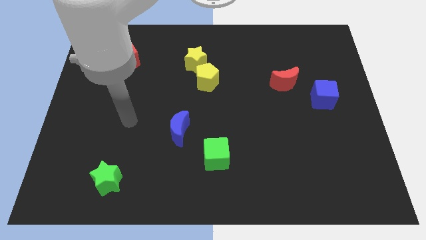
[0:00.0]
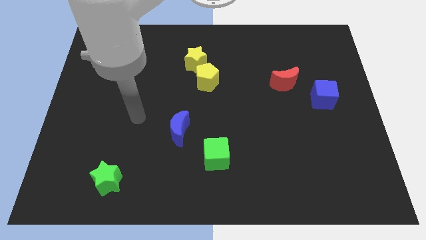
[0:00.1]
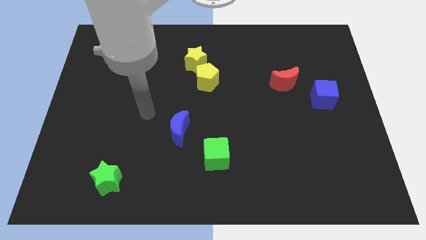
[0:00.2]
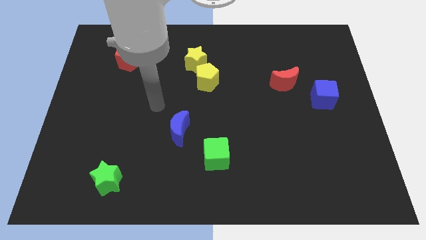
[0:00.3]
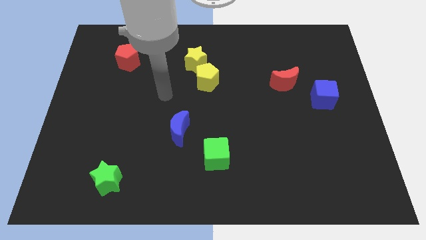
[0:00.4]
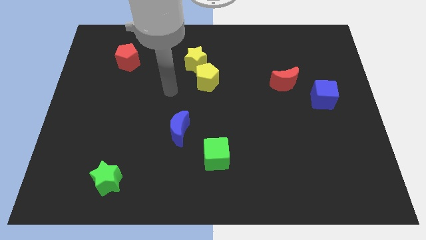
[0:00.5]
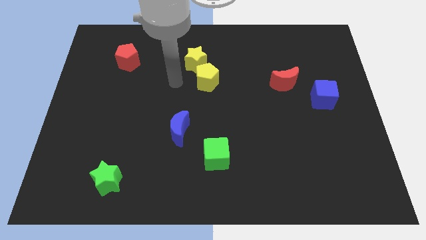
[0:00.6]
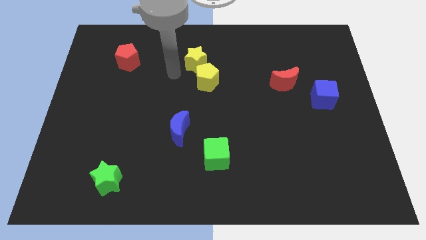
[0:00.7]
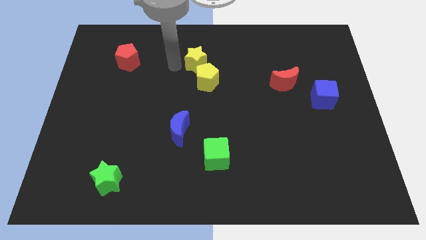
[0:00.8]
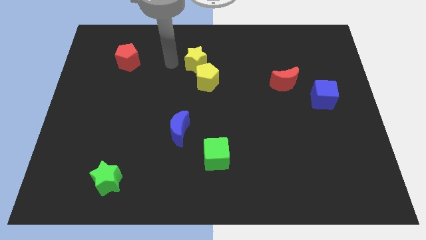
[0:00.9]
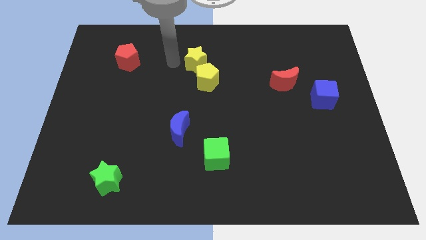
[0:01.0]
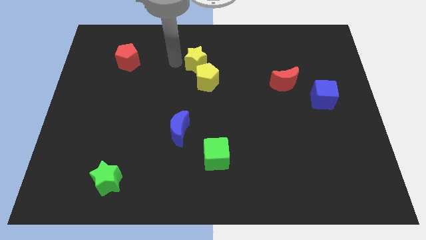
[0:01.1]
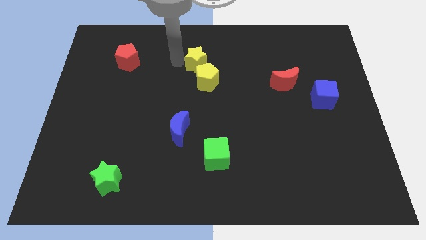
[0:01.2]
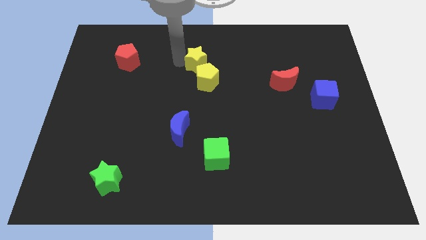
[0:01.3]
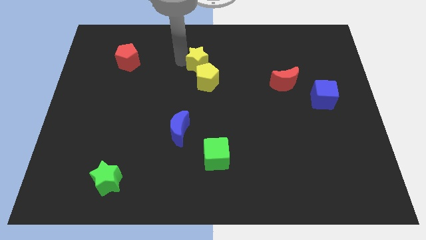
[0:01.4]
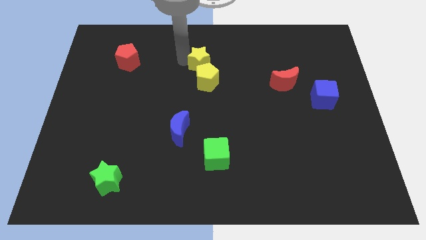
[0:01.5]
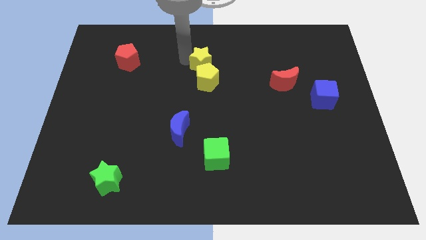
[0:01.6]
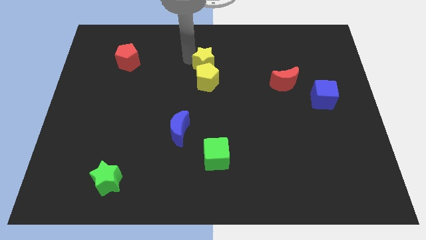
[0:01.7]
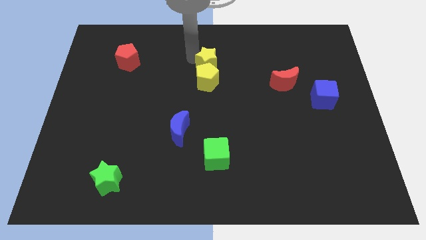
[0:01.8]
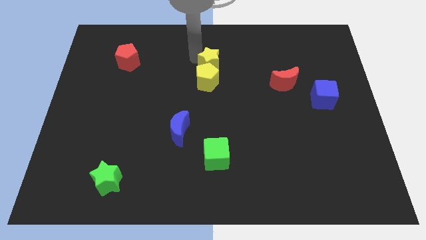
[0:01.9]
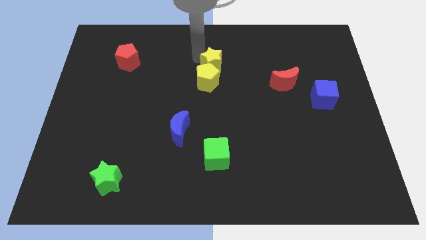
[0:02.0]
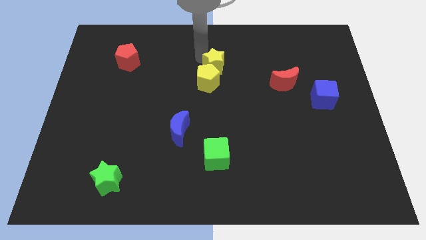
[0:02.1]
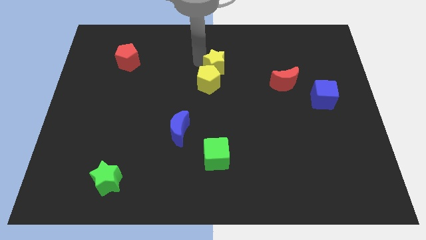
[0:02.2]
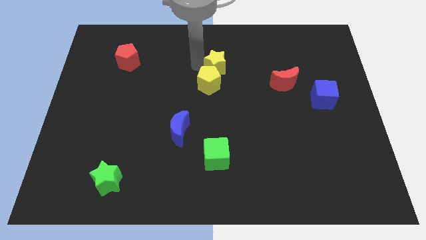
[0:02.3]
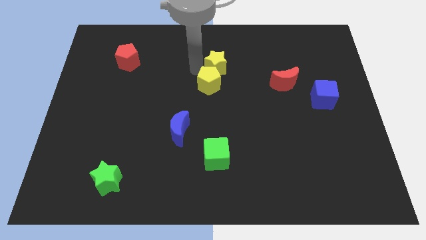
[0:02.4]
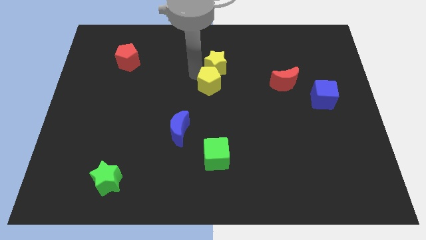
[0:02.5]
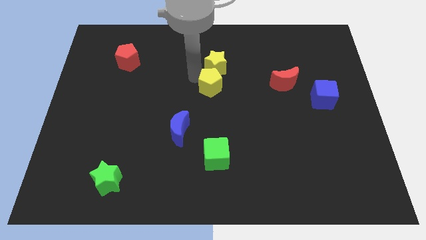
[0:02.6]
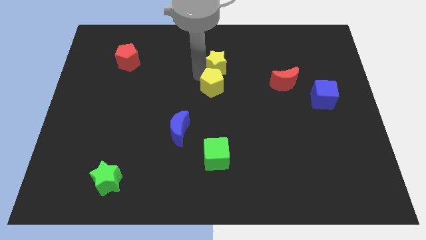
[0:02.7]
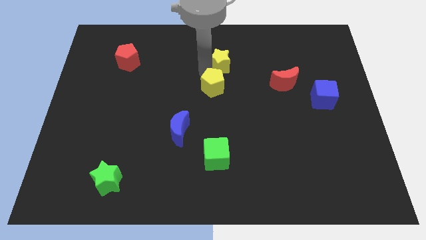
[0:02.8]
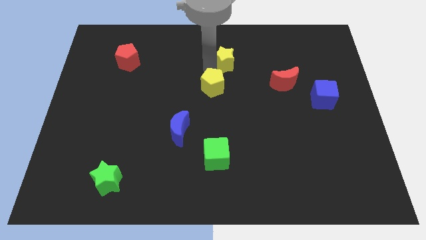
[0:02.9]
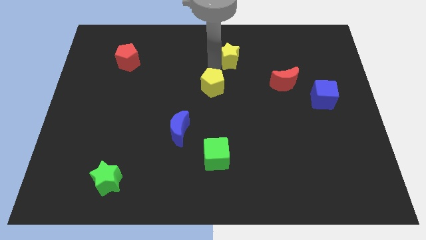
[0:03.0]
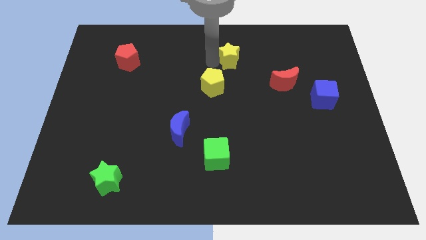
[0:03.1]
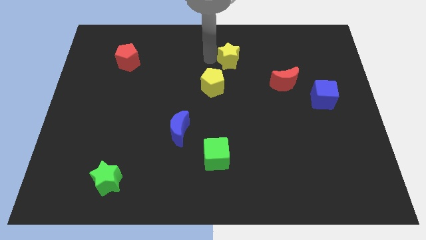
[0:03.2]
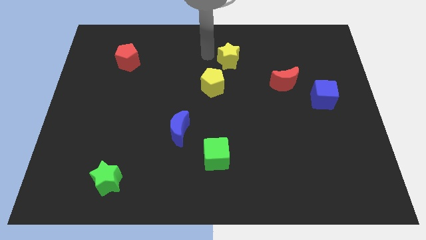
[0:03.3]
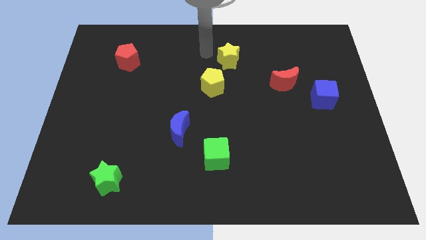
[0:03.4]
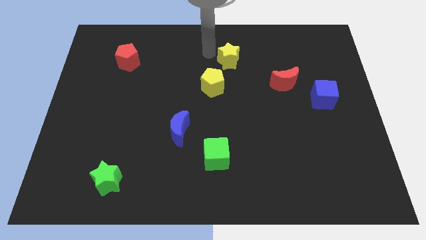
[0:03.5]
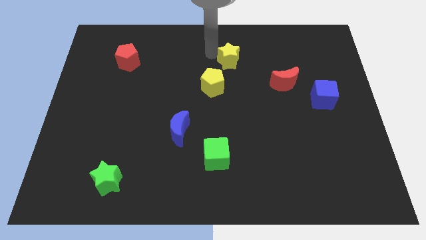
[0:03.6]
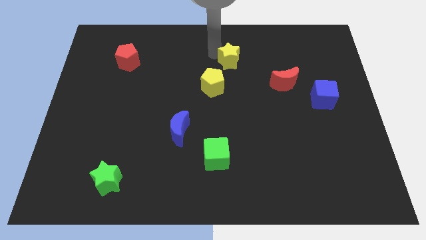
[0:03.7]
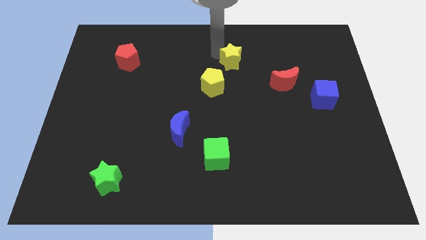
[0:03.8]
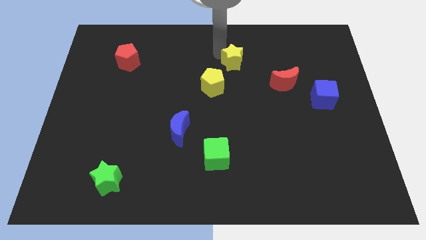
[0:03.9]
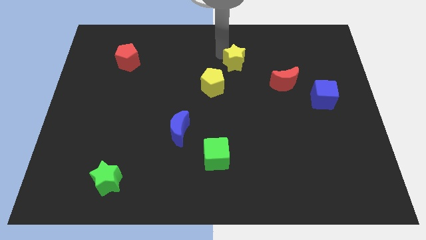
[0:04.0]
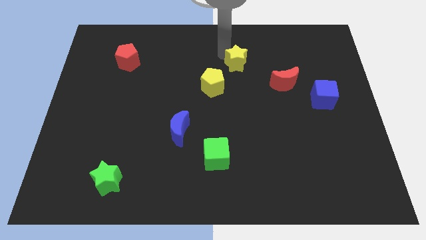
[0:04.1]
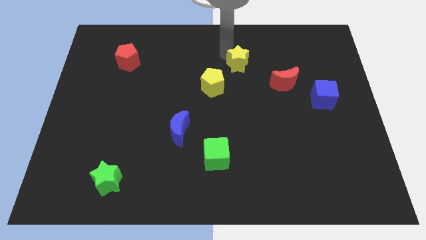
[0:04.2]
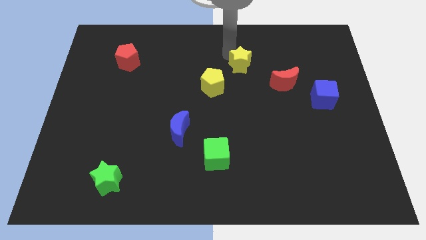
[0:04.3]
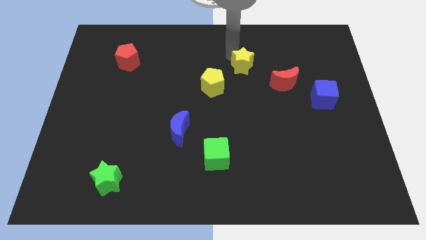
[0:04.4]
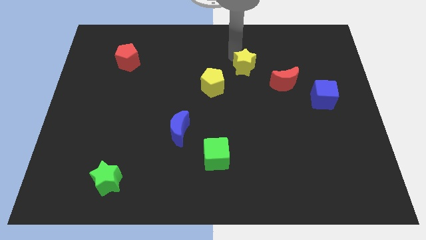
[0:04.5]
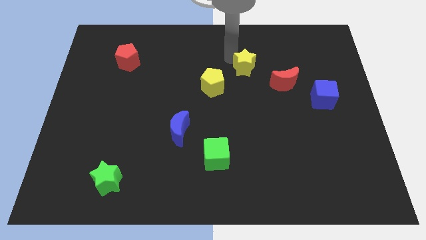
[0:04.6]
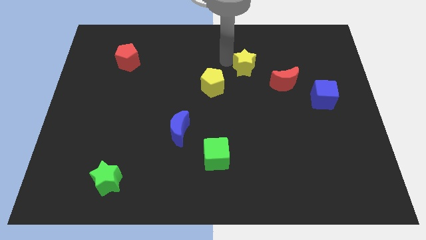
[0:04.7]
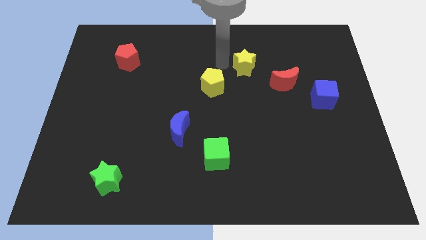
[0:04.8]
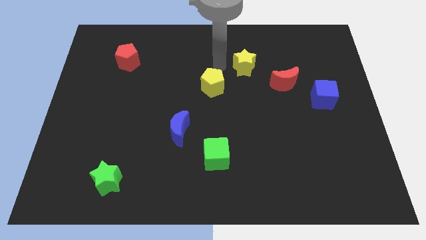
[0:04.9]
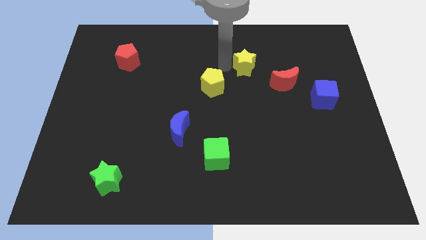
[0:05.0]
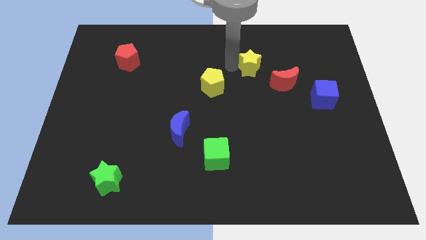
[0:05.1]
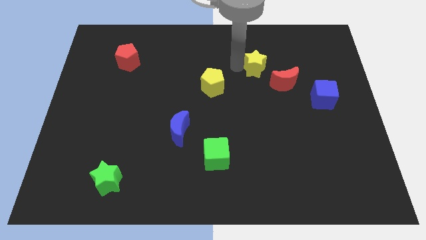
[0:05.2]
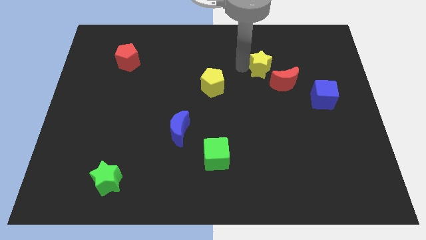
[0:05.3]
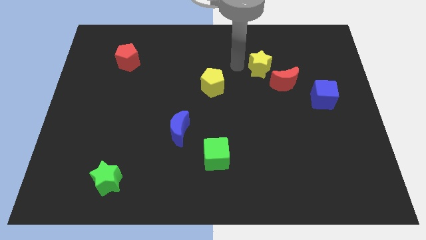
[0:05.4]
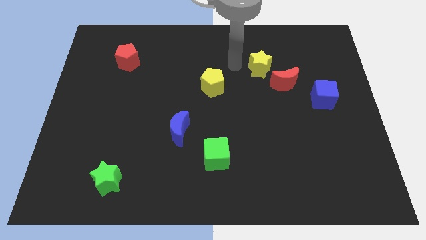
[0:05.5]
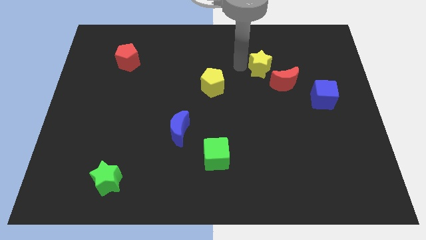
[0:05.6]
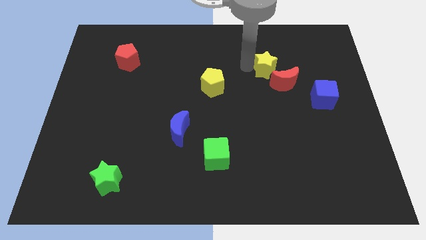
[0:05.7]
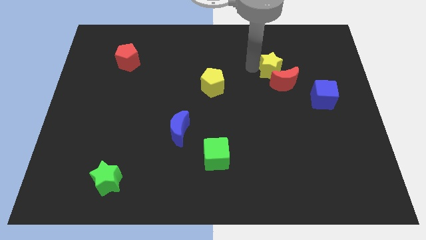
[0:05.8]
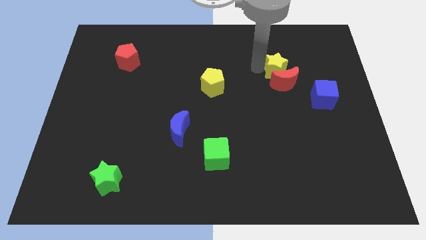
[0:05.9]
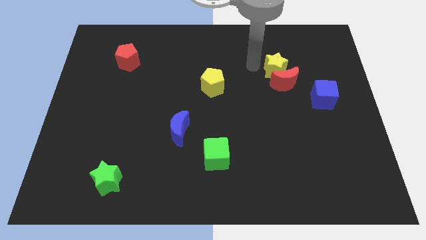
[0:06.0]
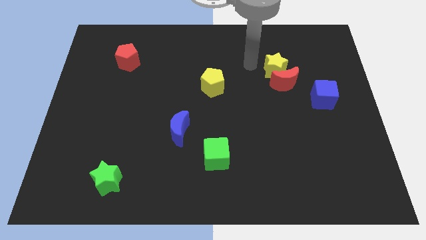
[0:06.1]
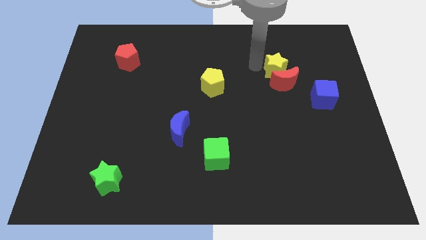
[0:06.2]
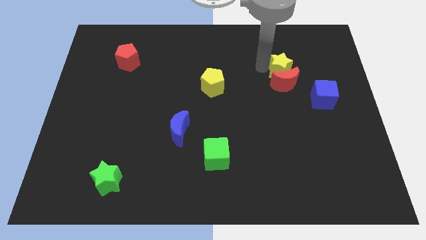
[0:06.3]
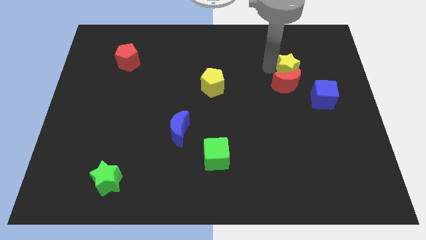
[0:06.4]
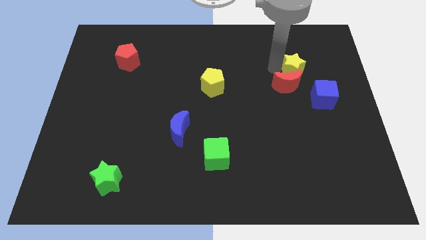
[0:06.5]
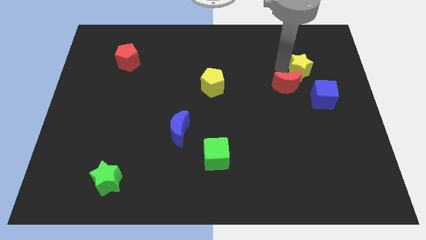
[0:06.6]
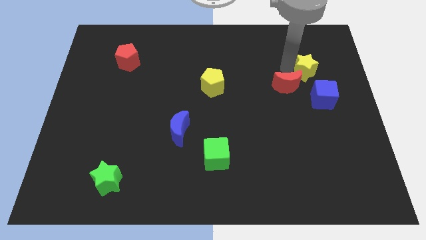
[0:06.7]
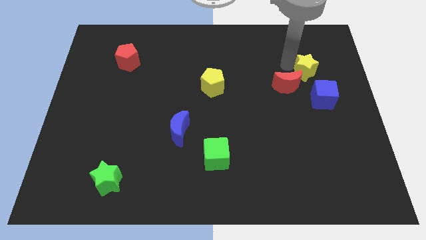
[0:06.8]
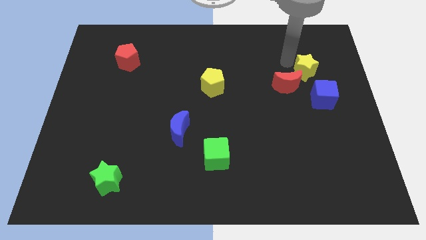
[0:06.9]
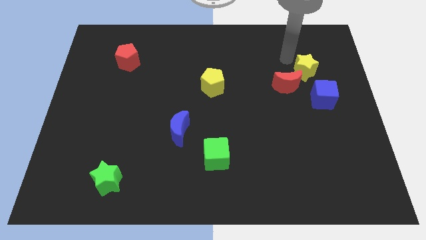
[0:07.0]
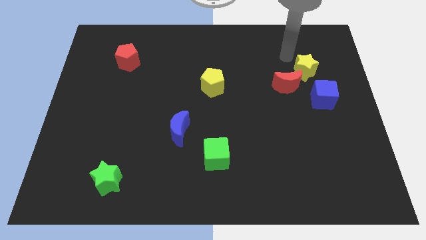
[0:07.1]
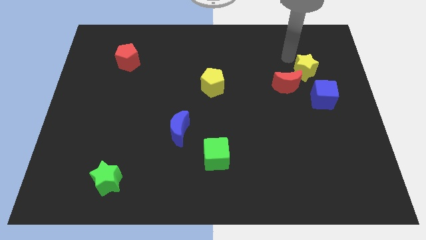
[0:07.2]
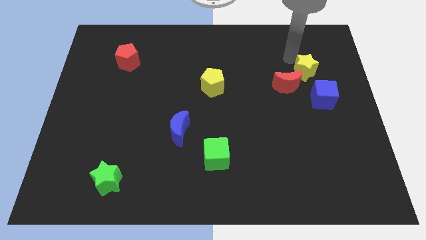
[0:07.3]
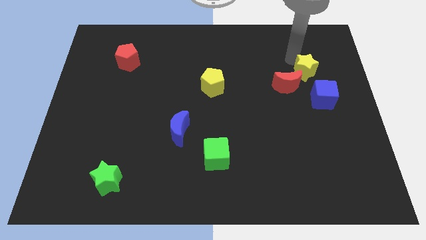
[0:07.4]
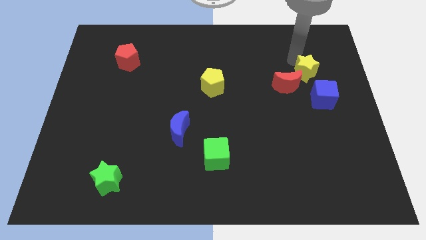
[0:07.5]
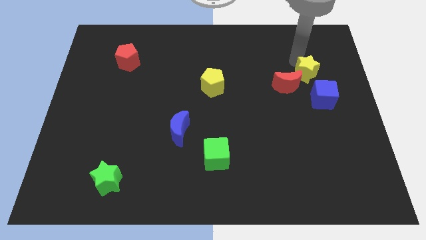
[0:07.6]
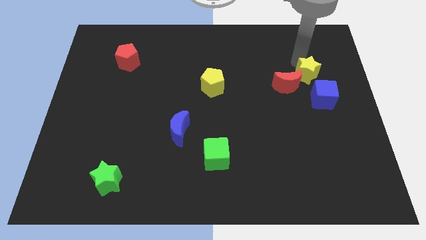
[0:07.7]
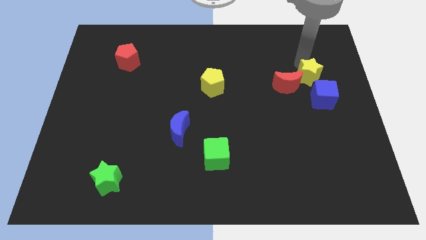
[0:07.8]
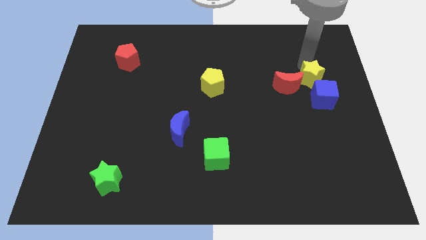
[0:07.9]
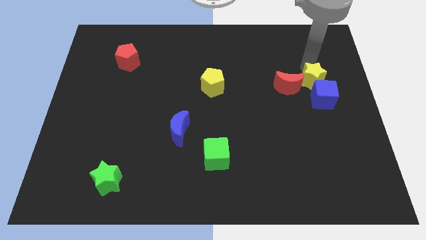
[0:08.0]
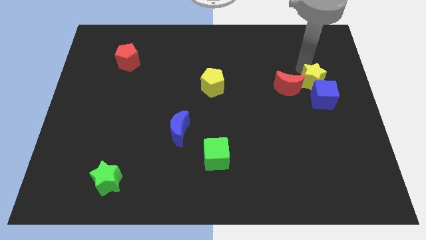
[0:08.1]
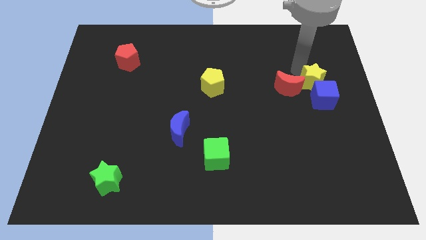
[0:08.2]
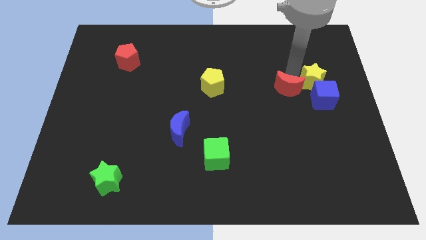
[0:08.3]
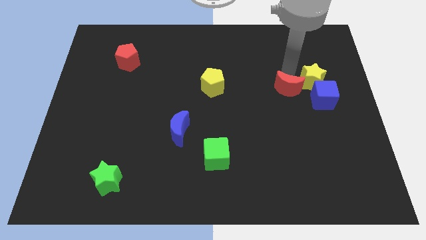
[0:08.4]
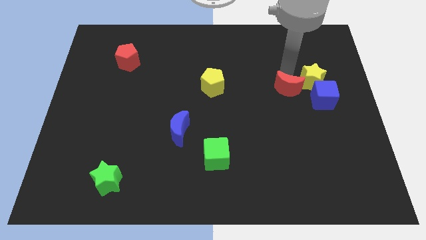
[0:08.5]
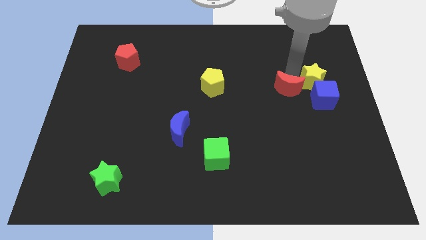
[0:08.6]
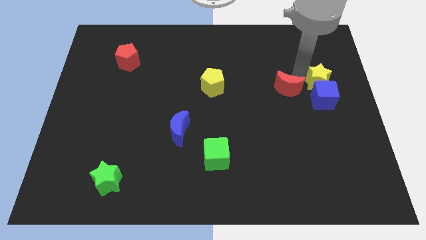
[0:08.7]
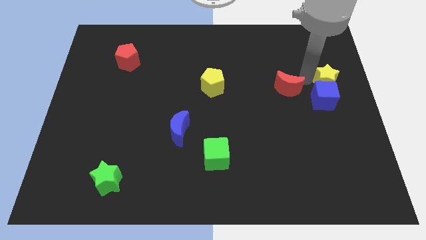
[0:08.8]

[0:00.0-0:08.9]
move the yellow star to the right side
